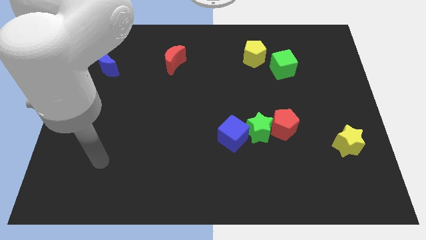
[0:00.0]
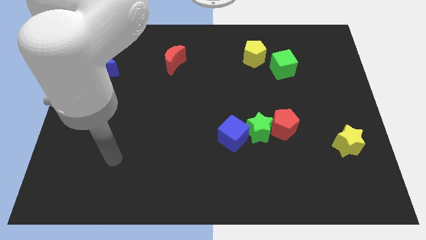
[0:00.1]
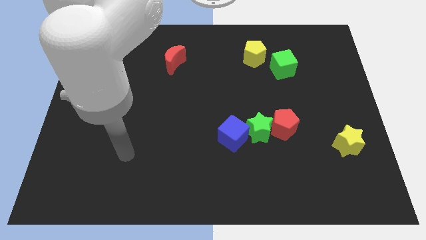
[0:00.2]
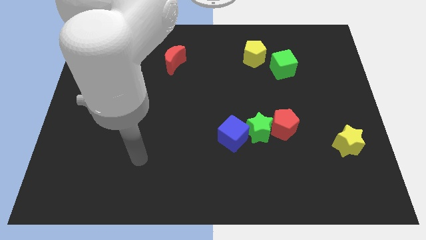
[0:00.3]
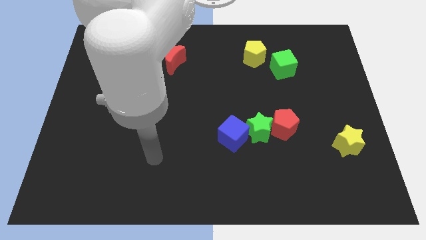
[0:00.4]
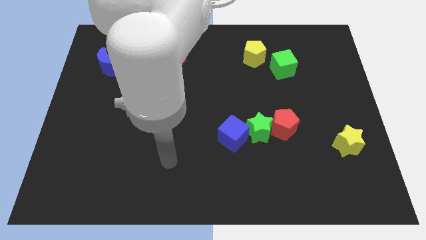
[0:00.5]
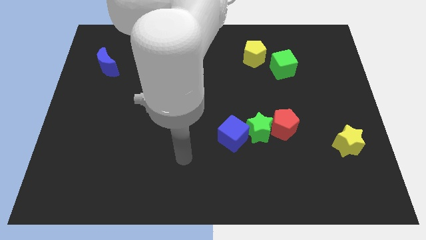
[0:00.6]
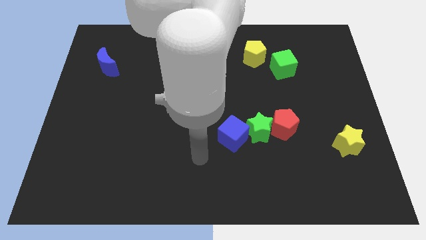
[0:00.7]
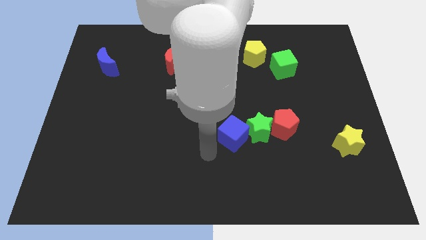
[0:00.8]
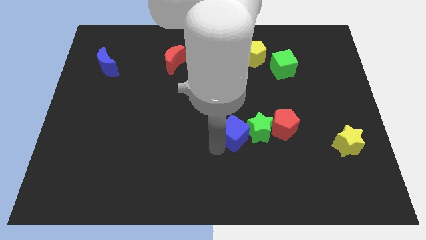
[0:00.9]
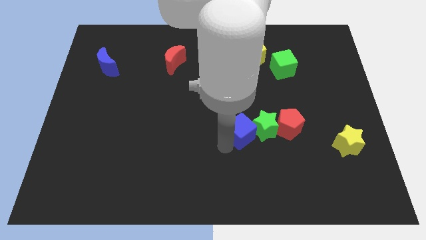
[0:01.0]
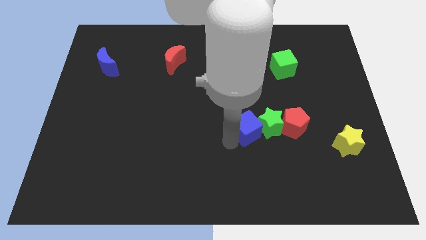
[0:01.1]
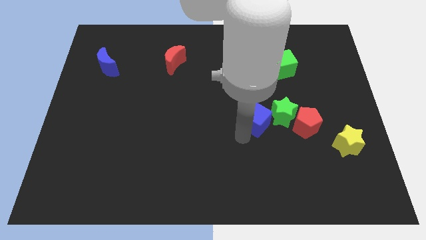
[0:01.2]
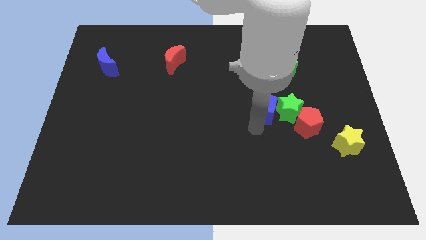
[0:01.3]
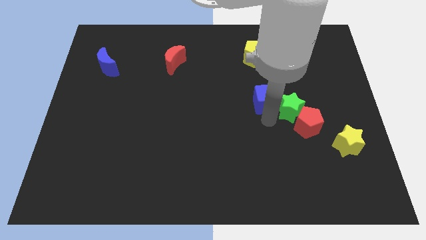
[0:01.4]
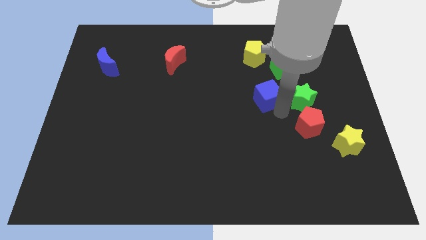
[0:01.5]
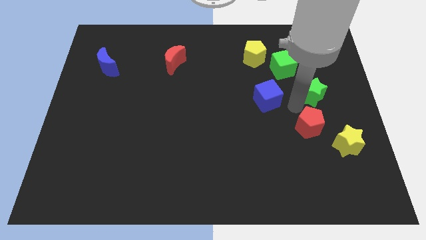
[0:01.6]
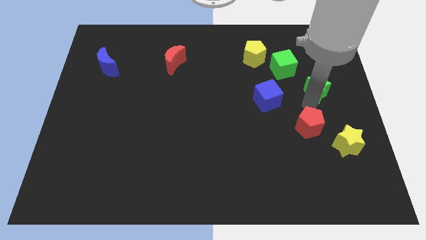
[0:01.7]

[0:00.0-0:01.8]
separate the red pentagon from the green star

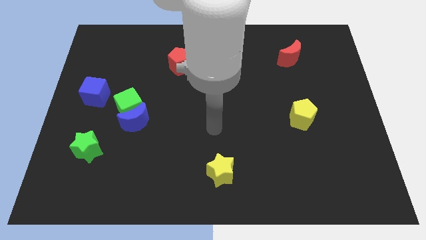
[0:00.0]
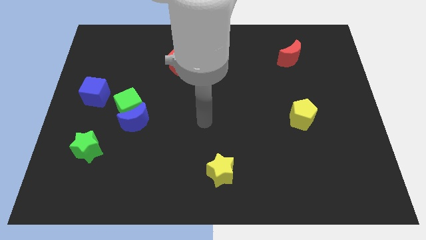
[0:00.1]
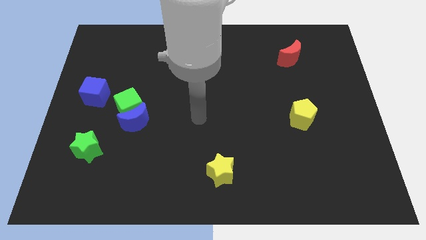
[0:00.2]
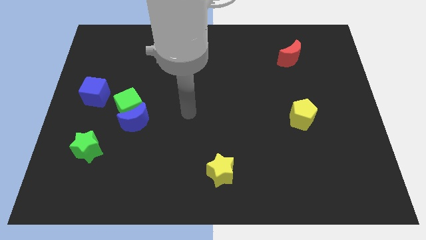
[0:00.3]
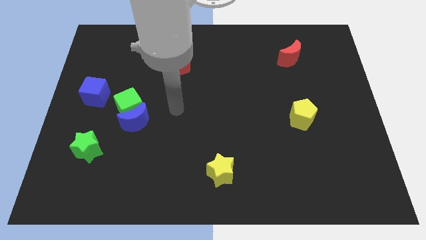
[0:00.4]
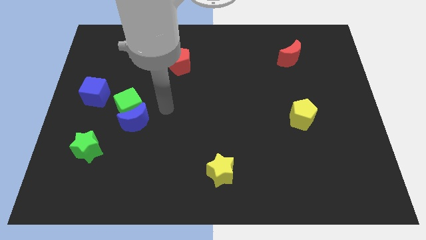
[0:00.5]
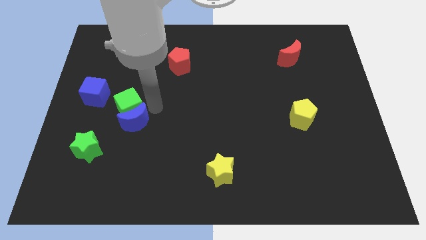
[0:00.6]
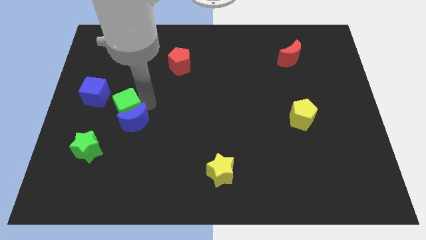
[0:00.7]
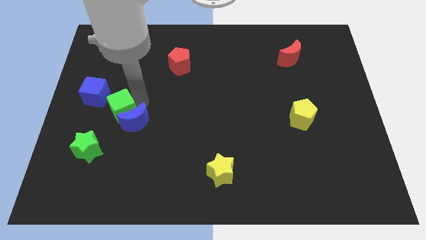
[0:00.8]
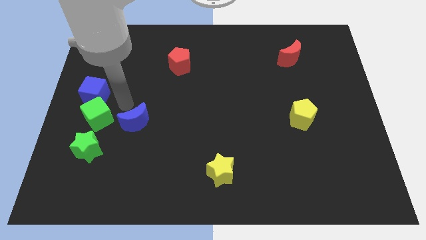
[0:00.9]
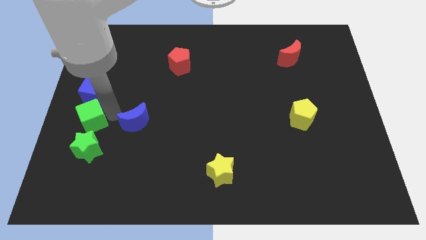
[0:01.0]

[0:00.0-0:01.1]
separate the blue moon from the green cube

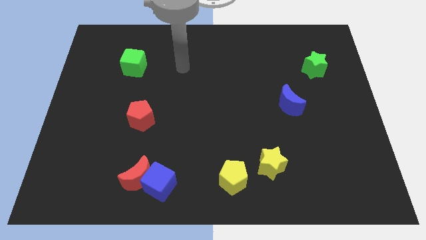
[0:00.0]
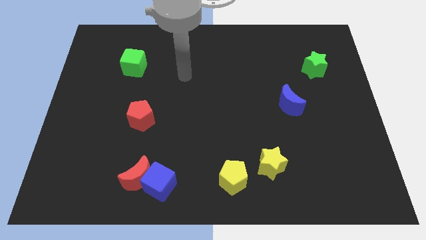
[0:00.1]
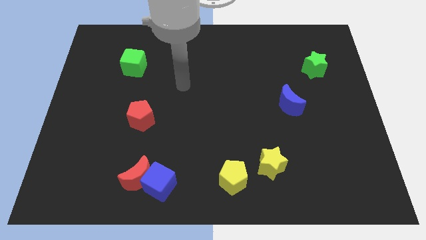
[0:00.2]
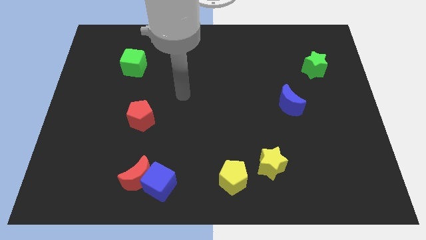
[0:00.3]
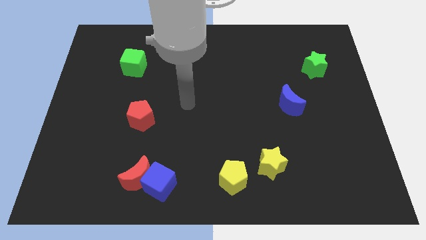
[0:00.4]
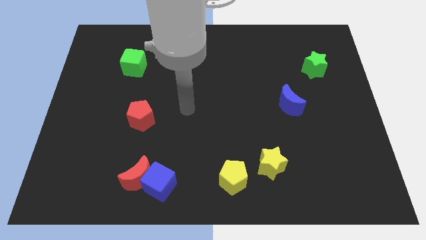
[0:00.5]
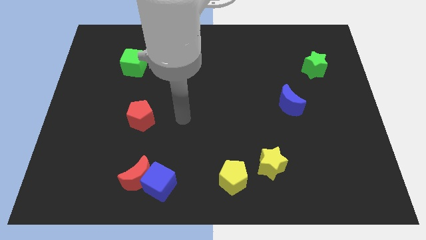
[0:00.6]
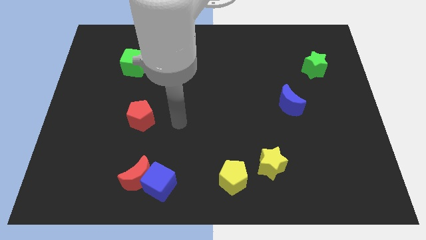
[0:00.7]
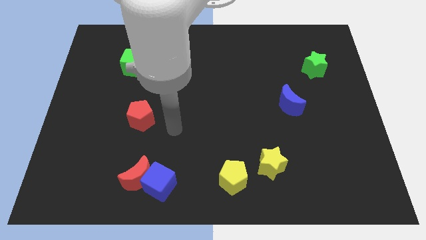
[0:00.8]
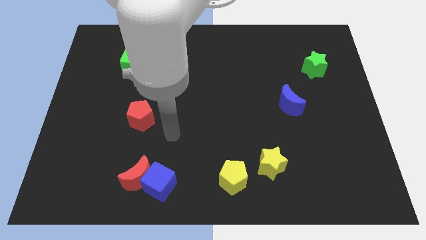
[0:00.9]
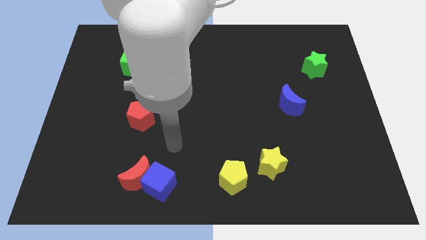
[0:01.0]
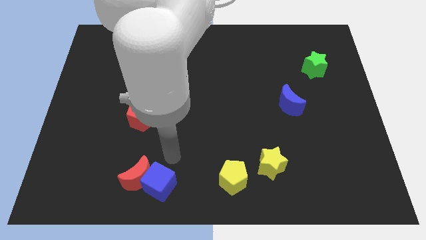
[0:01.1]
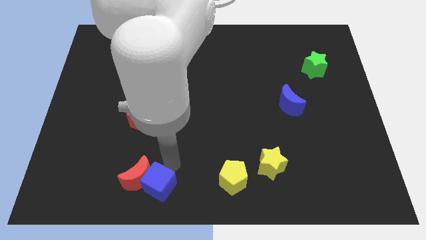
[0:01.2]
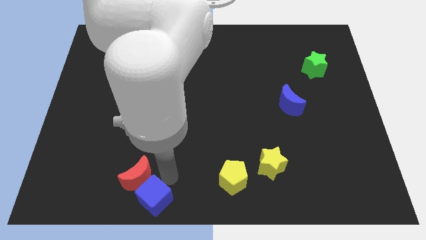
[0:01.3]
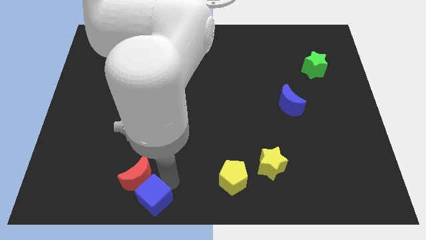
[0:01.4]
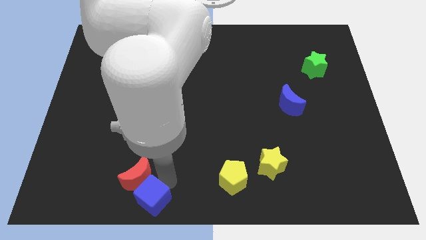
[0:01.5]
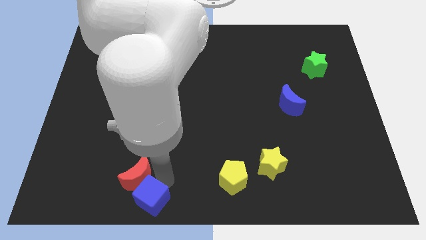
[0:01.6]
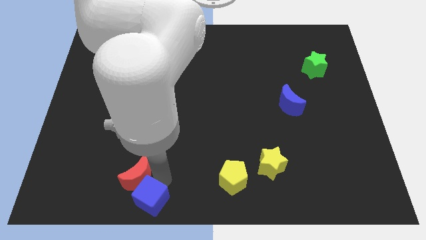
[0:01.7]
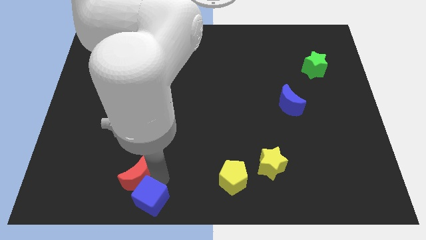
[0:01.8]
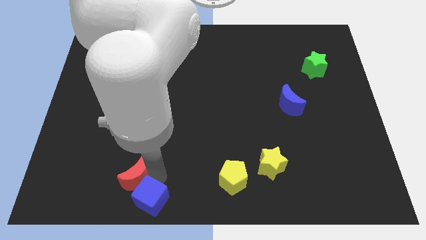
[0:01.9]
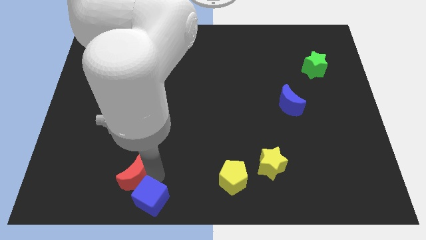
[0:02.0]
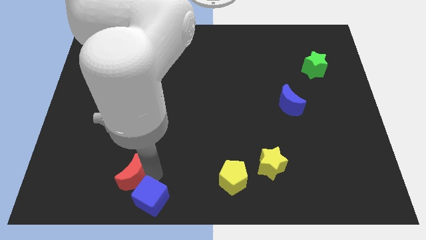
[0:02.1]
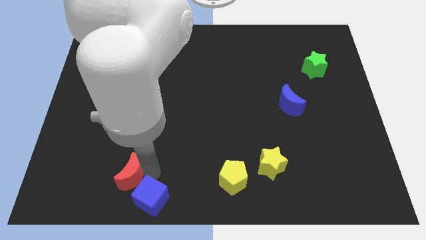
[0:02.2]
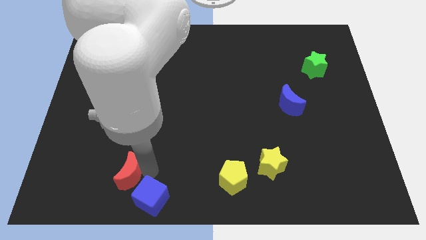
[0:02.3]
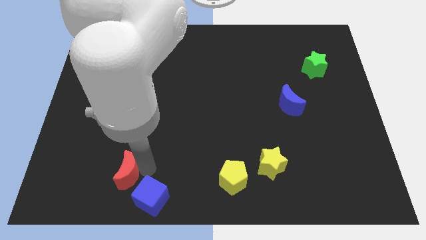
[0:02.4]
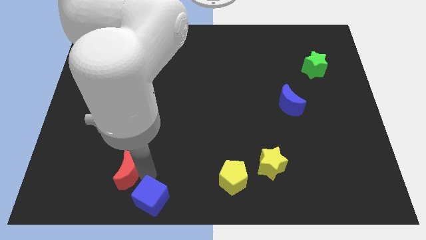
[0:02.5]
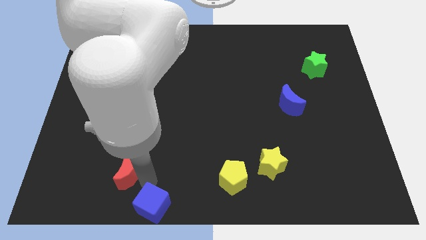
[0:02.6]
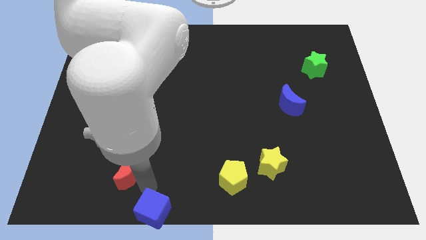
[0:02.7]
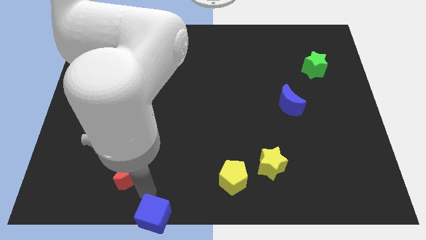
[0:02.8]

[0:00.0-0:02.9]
separate the red moon from the blue cube

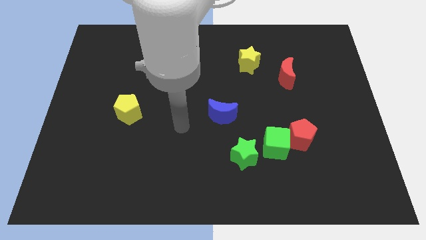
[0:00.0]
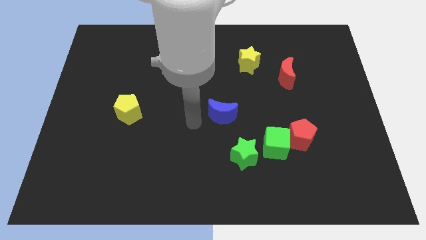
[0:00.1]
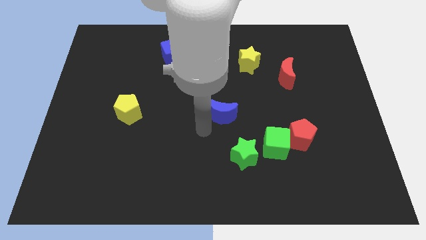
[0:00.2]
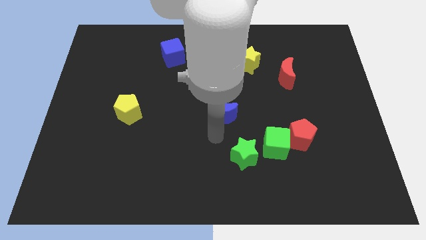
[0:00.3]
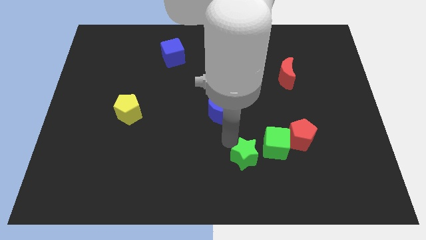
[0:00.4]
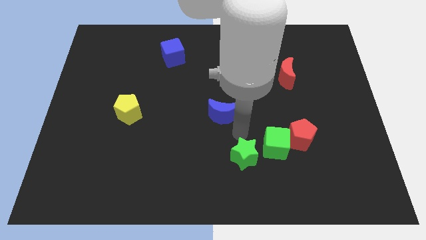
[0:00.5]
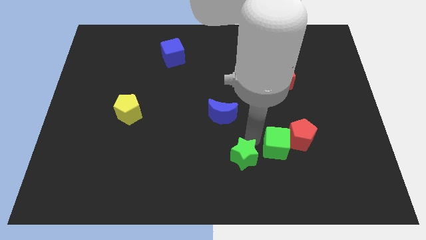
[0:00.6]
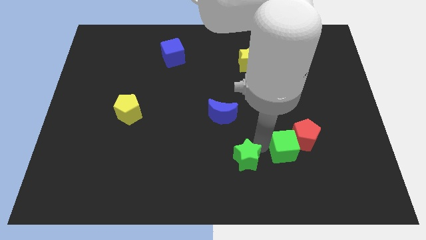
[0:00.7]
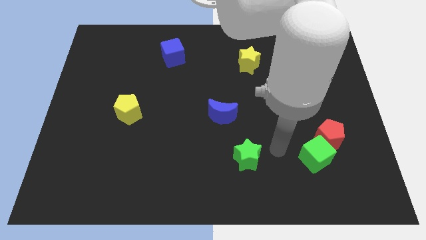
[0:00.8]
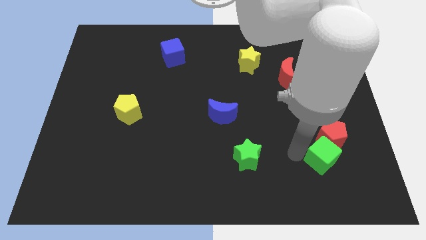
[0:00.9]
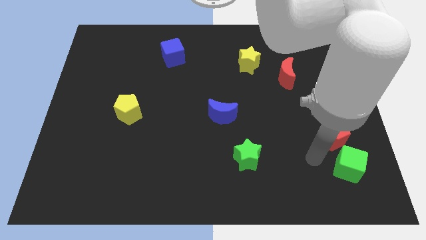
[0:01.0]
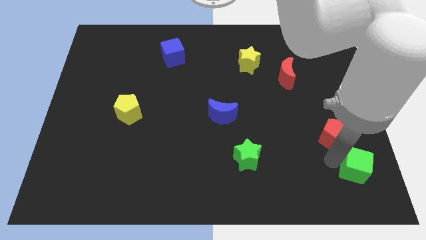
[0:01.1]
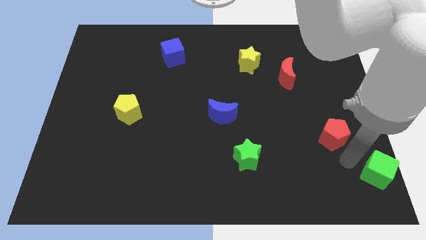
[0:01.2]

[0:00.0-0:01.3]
separate the red pentagon from the green cube

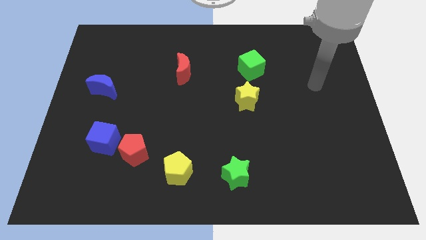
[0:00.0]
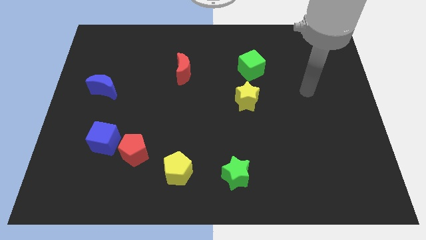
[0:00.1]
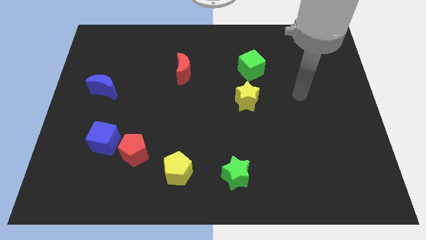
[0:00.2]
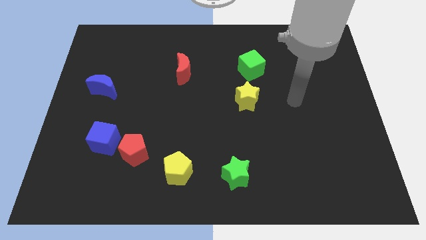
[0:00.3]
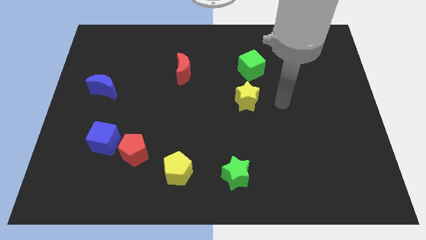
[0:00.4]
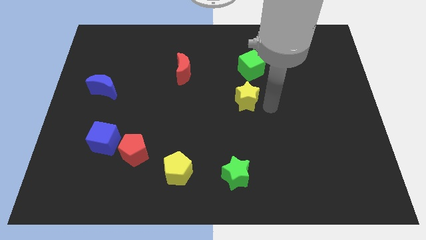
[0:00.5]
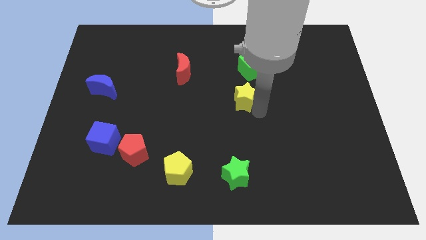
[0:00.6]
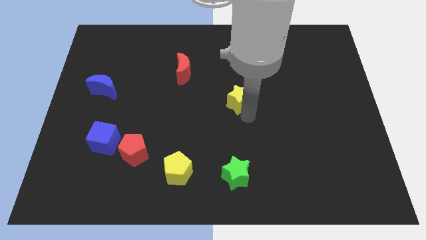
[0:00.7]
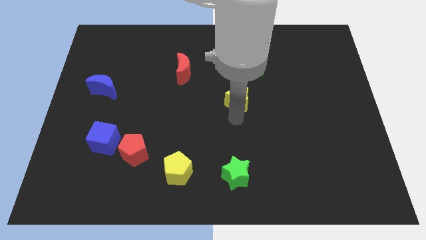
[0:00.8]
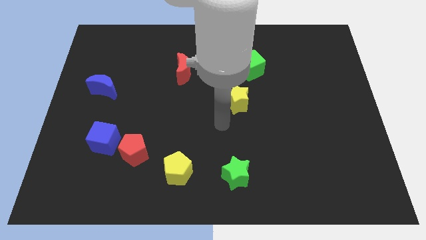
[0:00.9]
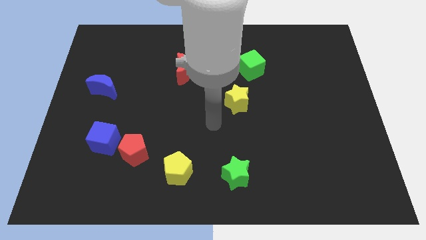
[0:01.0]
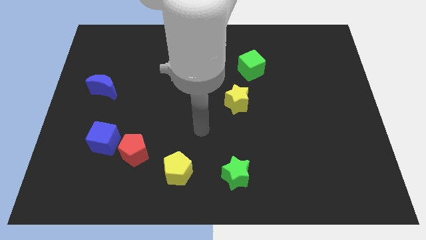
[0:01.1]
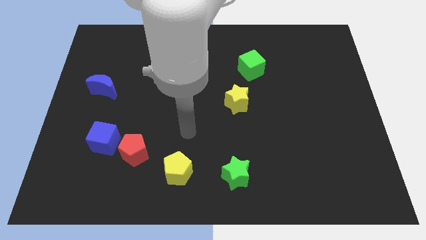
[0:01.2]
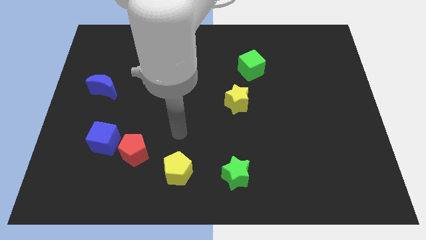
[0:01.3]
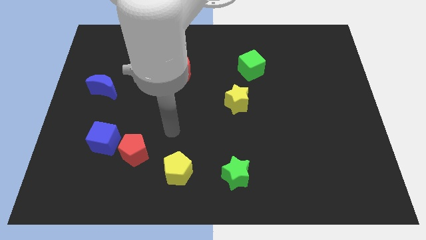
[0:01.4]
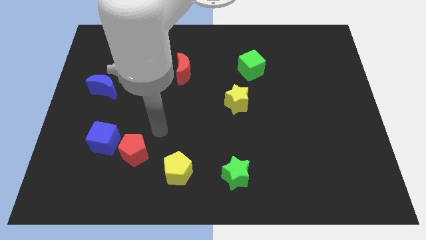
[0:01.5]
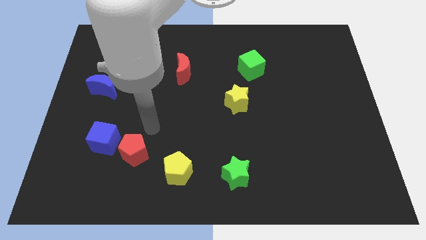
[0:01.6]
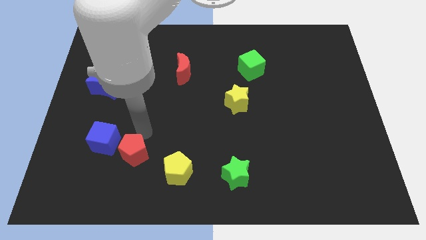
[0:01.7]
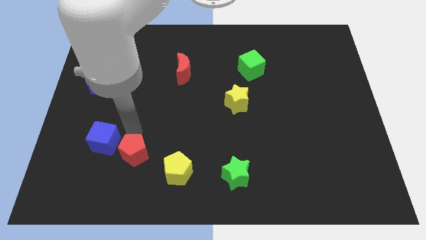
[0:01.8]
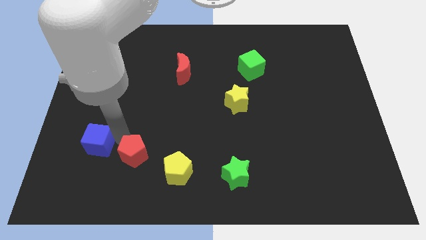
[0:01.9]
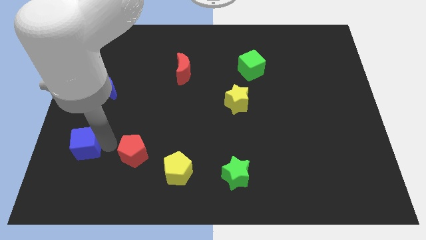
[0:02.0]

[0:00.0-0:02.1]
separate the red pentagon from the blue cube

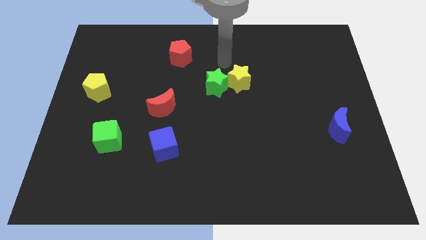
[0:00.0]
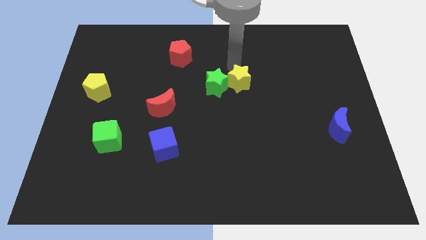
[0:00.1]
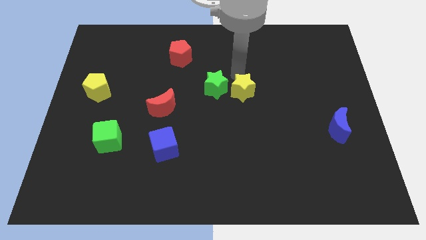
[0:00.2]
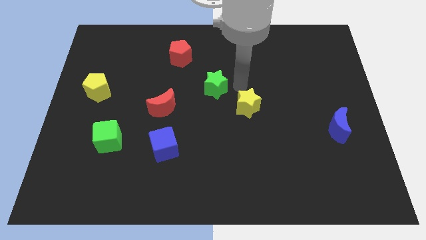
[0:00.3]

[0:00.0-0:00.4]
move the green star away from the yellow star
